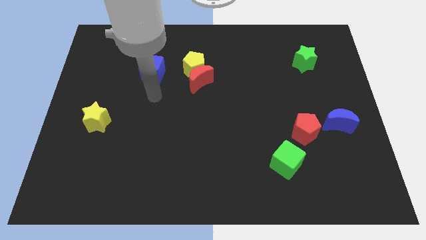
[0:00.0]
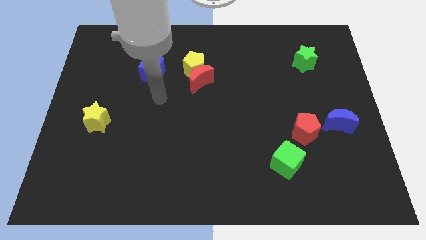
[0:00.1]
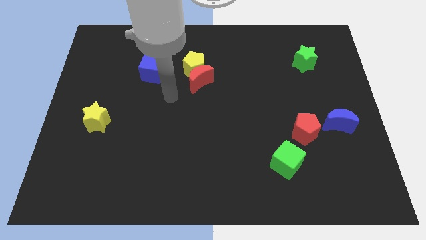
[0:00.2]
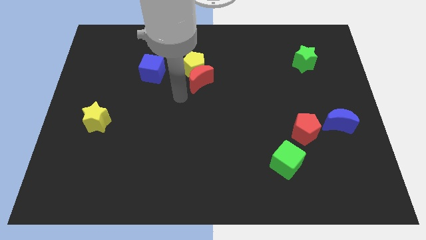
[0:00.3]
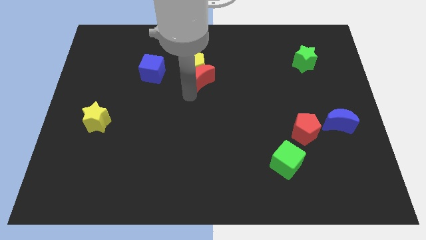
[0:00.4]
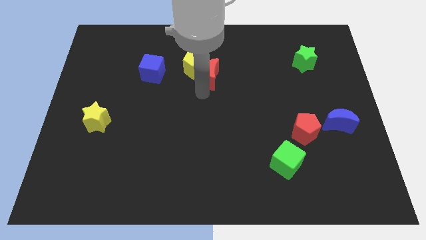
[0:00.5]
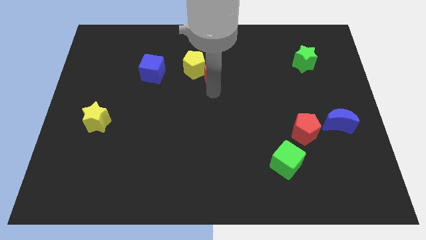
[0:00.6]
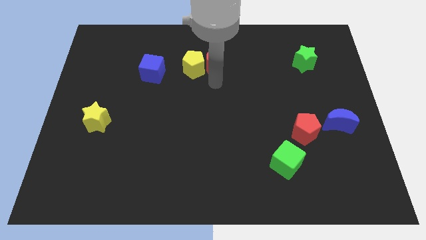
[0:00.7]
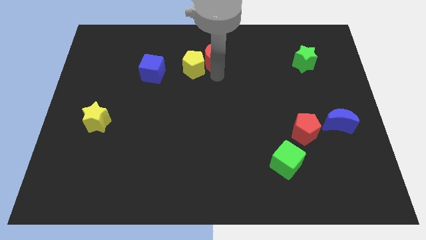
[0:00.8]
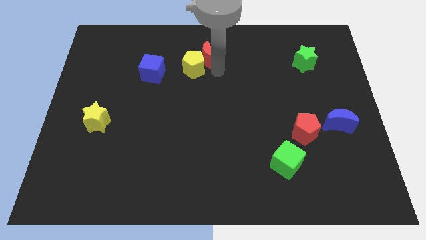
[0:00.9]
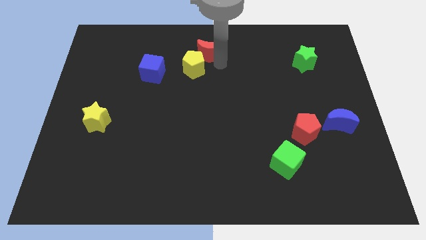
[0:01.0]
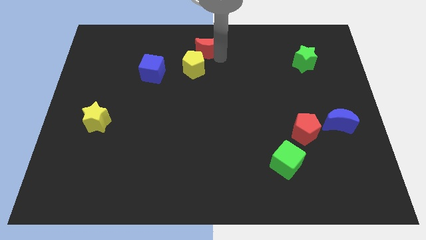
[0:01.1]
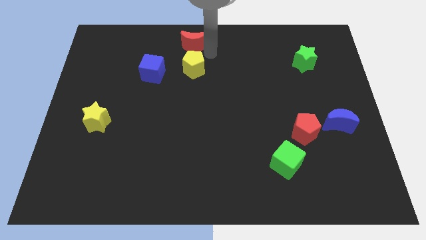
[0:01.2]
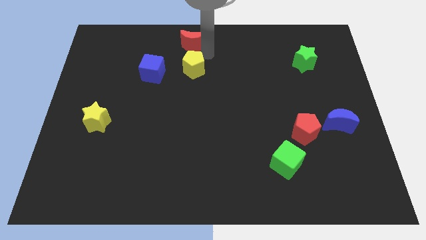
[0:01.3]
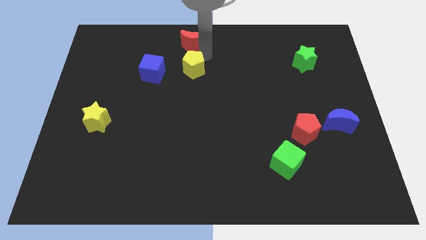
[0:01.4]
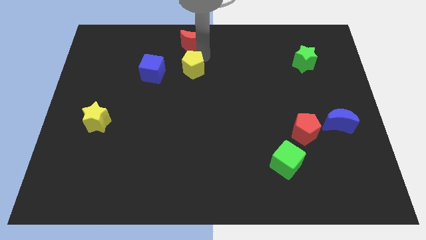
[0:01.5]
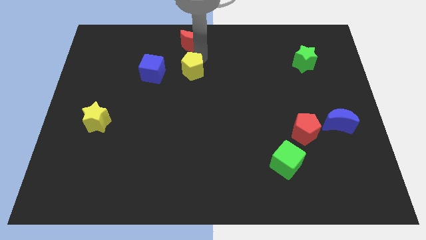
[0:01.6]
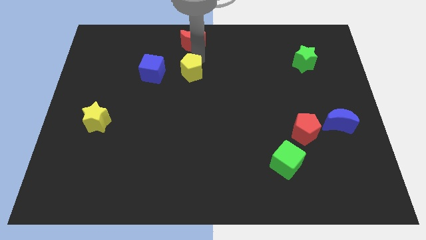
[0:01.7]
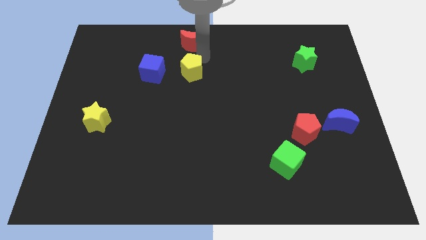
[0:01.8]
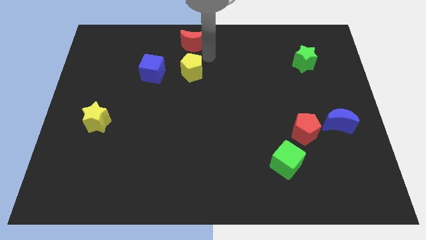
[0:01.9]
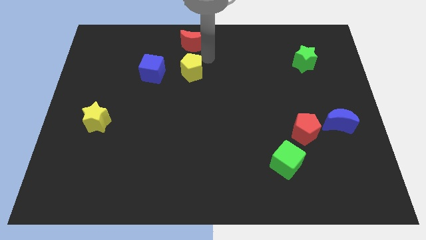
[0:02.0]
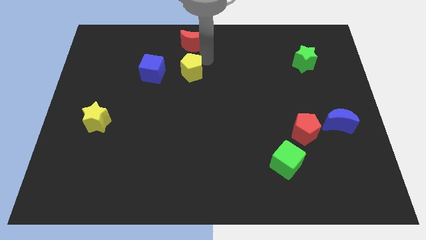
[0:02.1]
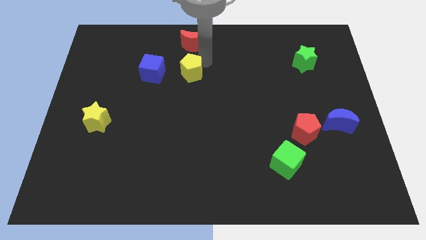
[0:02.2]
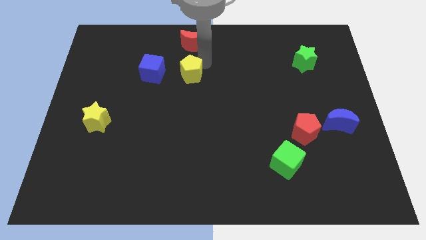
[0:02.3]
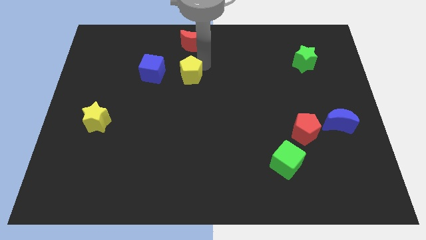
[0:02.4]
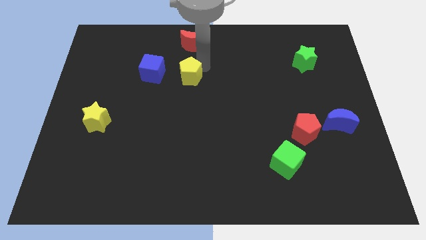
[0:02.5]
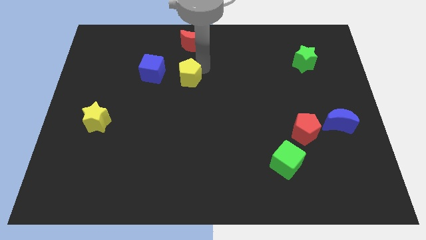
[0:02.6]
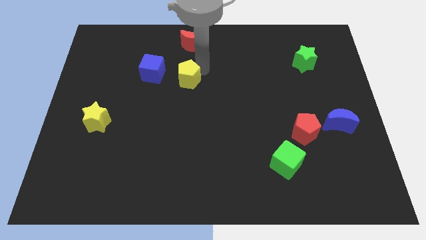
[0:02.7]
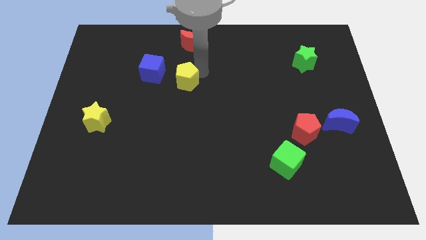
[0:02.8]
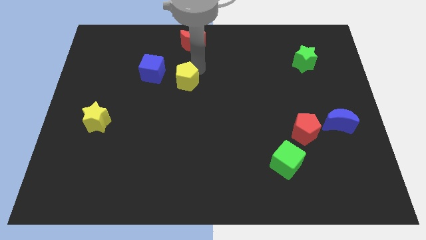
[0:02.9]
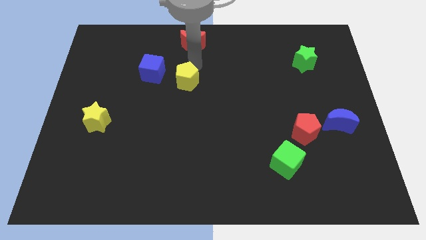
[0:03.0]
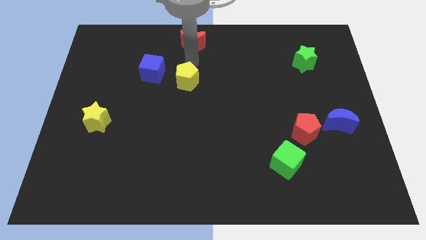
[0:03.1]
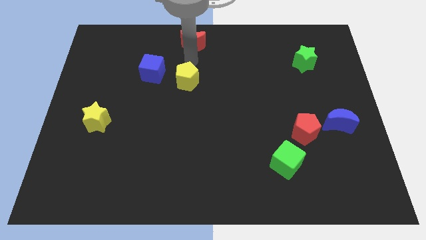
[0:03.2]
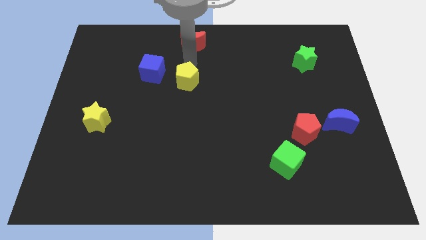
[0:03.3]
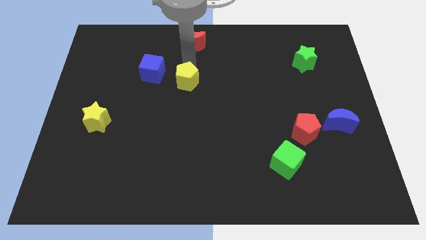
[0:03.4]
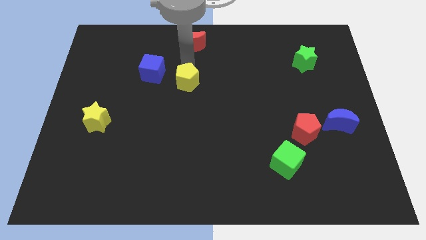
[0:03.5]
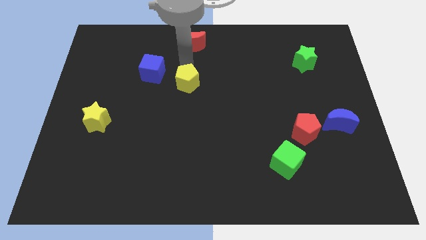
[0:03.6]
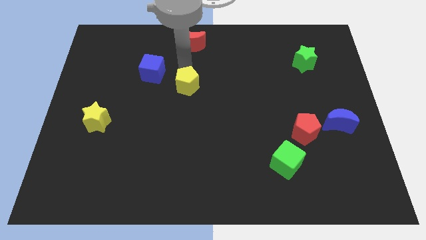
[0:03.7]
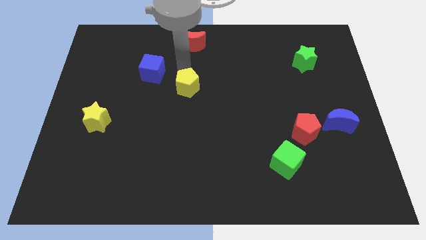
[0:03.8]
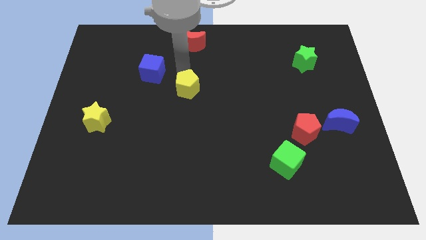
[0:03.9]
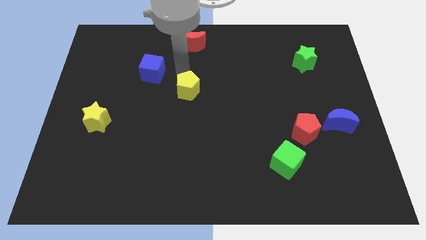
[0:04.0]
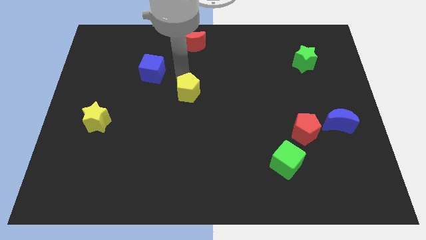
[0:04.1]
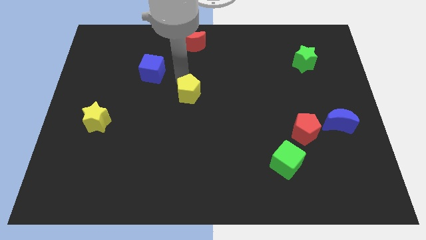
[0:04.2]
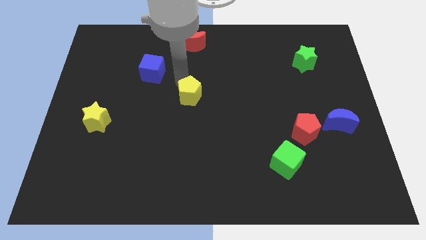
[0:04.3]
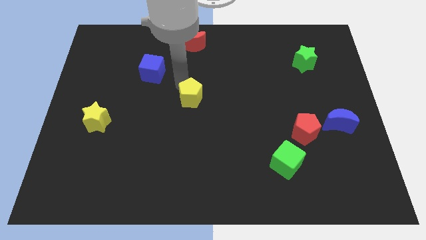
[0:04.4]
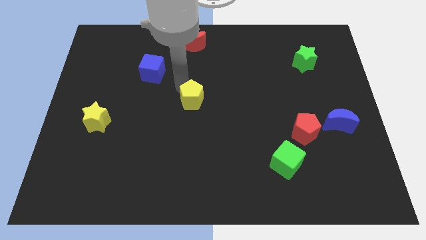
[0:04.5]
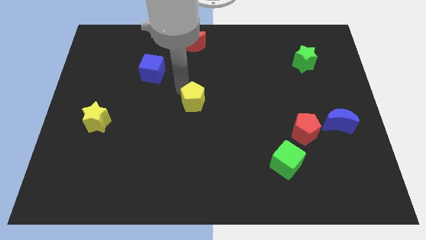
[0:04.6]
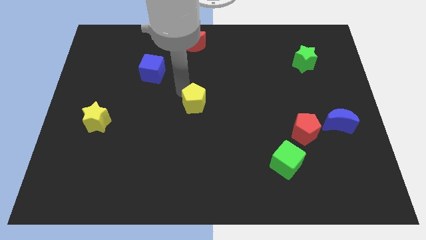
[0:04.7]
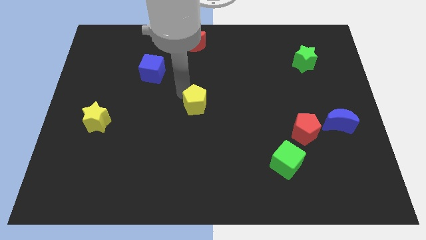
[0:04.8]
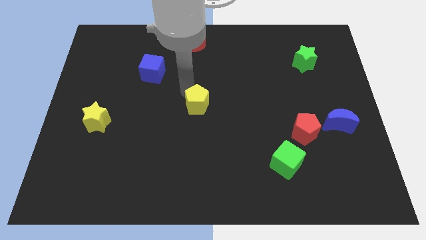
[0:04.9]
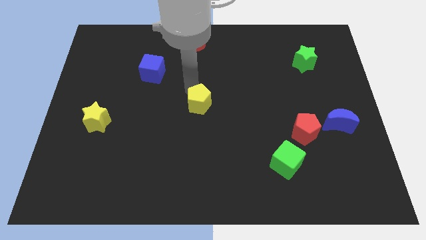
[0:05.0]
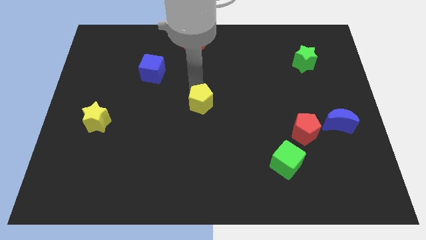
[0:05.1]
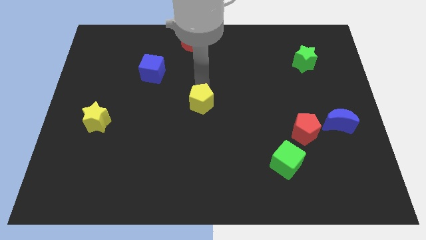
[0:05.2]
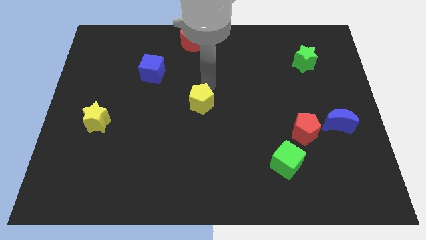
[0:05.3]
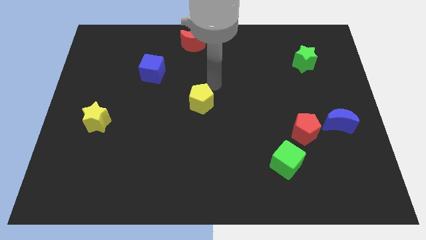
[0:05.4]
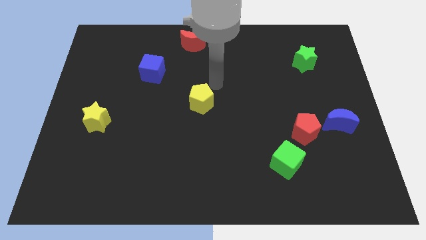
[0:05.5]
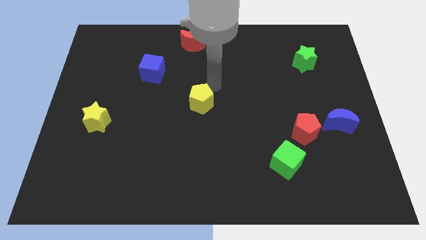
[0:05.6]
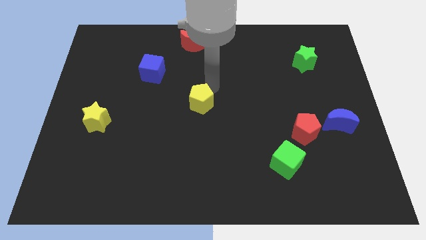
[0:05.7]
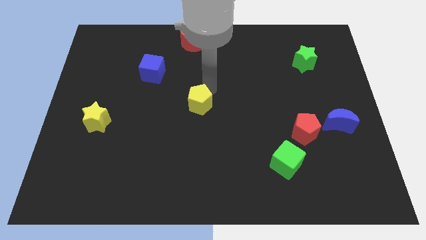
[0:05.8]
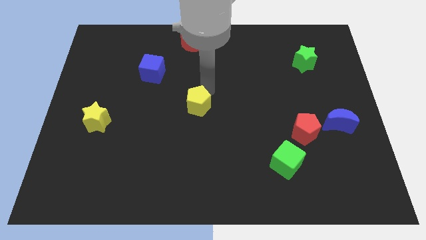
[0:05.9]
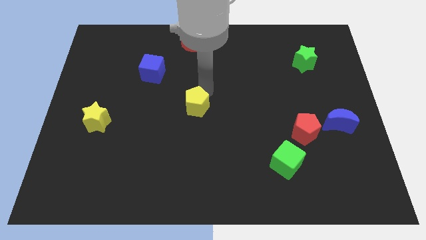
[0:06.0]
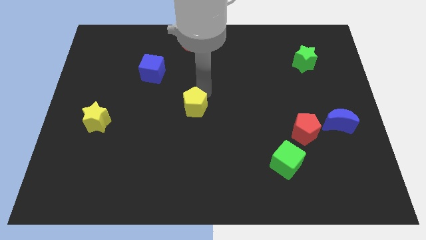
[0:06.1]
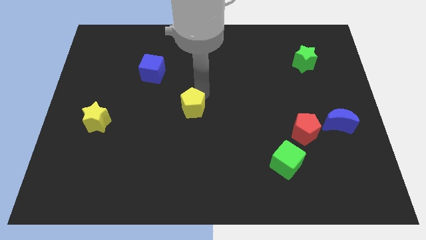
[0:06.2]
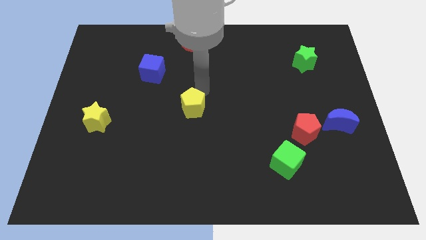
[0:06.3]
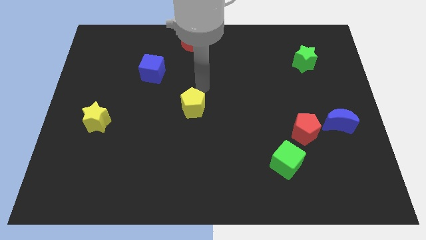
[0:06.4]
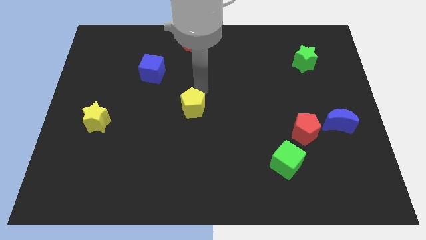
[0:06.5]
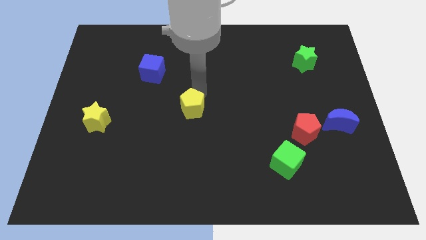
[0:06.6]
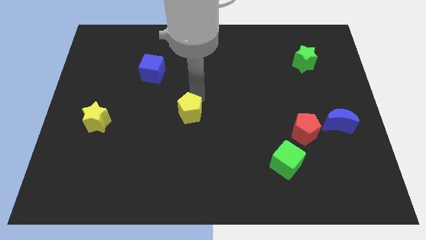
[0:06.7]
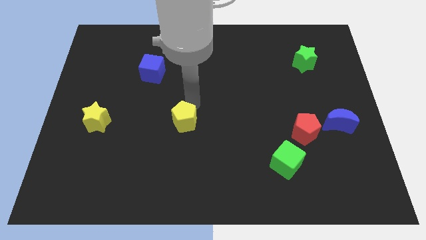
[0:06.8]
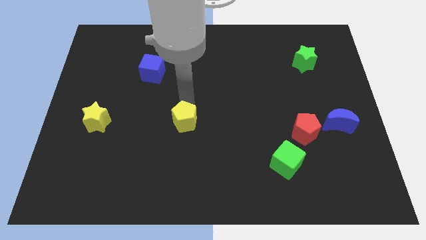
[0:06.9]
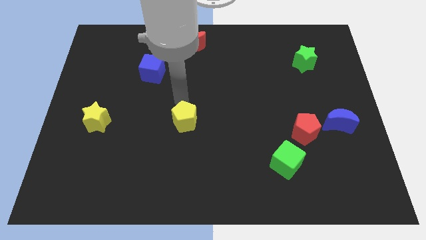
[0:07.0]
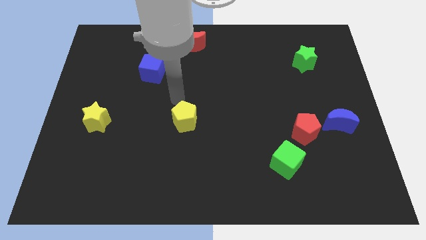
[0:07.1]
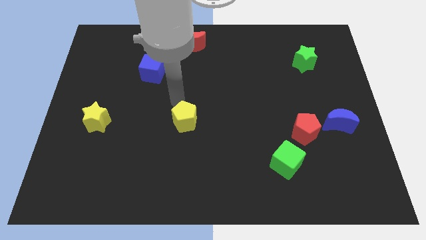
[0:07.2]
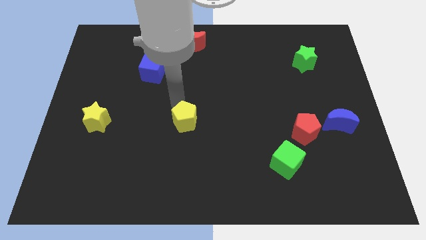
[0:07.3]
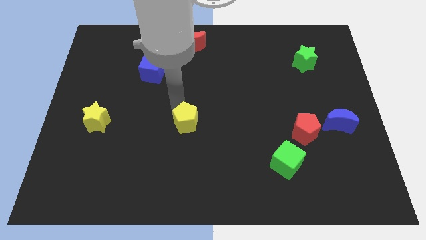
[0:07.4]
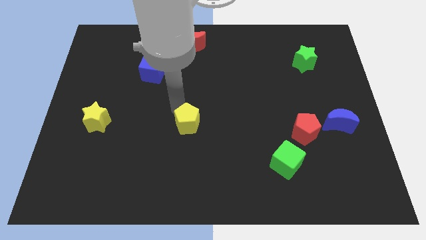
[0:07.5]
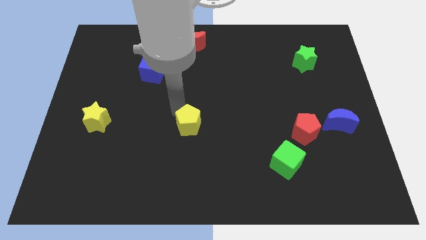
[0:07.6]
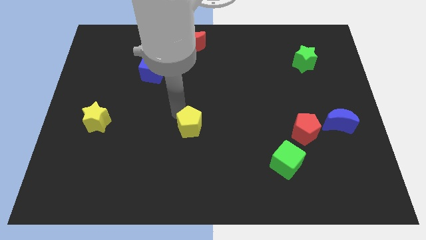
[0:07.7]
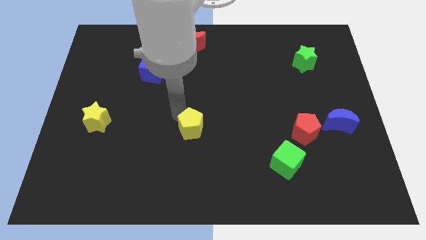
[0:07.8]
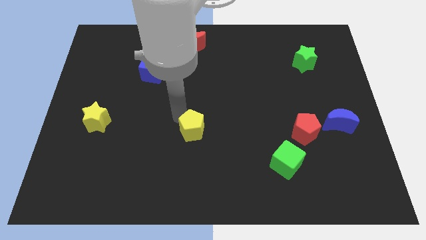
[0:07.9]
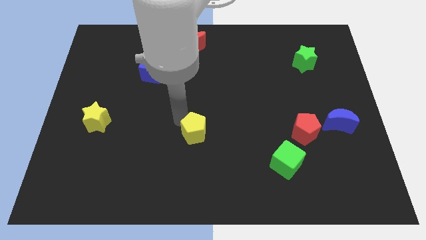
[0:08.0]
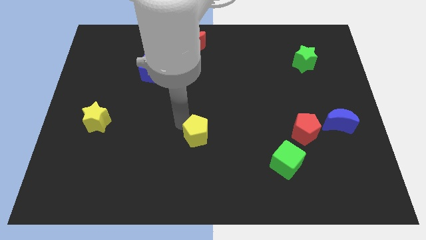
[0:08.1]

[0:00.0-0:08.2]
slide the yellow pentagon downwards
